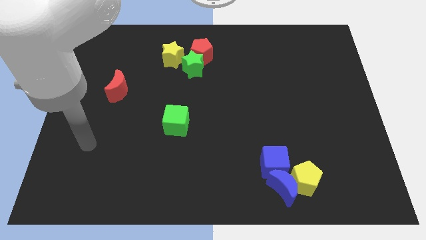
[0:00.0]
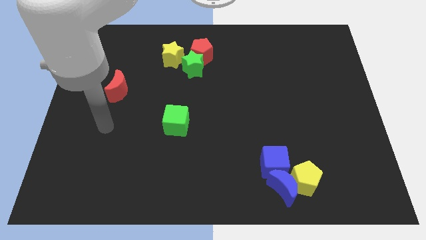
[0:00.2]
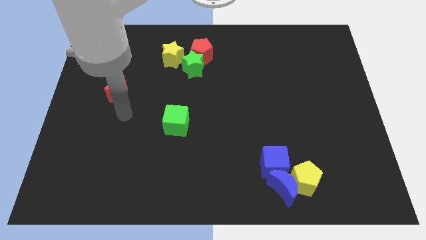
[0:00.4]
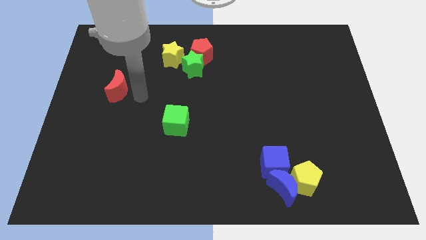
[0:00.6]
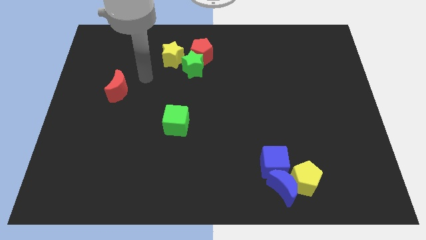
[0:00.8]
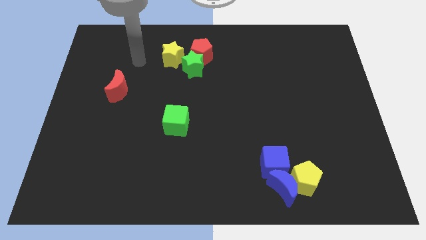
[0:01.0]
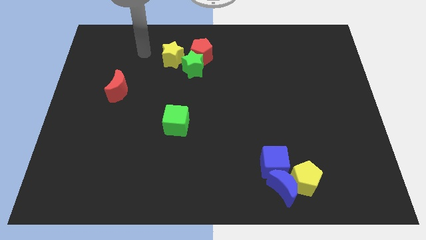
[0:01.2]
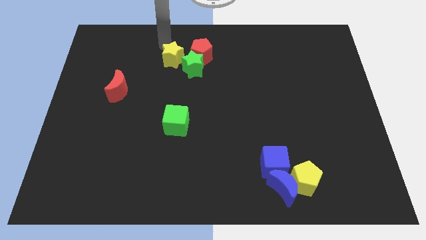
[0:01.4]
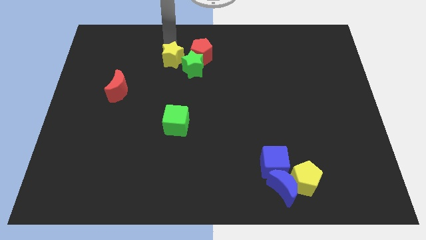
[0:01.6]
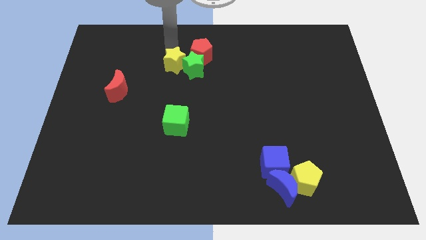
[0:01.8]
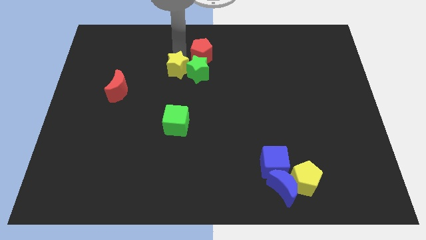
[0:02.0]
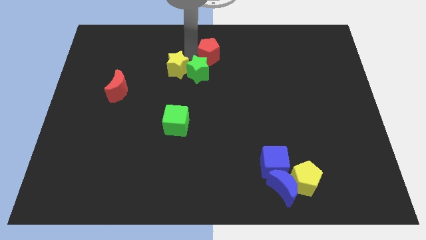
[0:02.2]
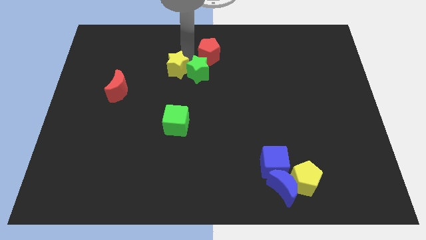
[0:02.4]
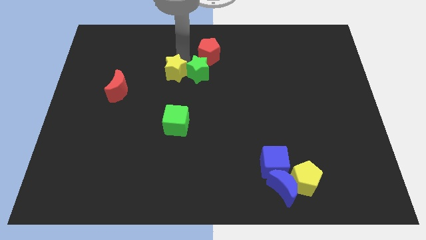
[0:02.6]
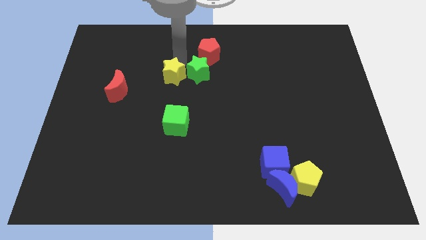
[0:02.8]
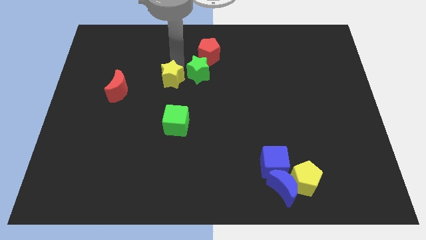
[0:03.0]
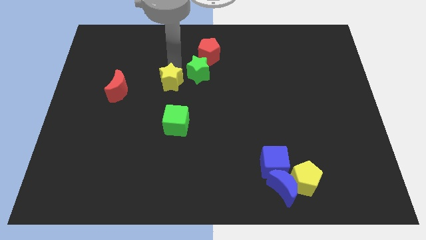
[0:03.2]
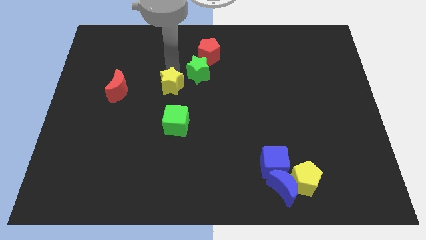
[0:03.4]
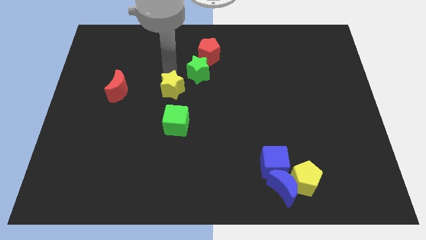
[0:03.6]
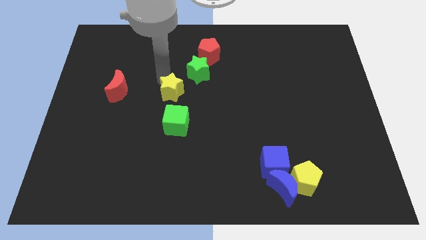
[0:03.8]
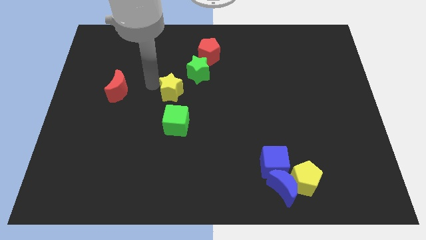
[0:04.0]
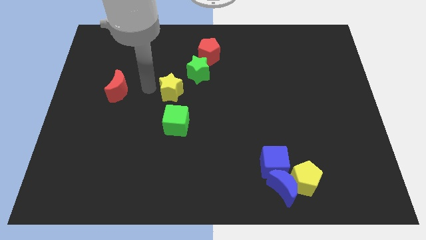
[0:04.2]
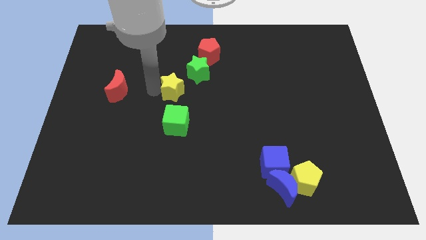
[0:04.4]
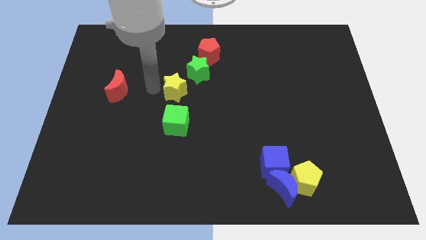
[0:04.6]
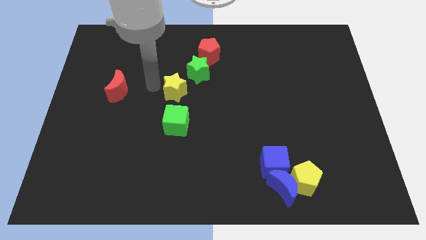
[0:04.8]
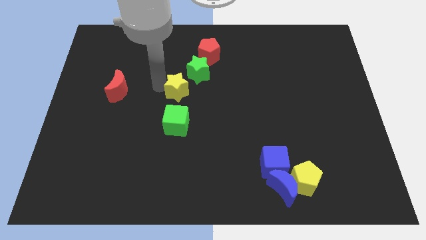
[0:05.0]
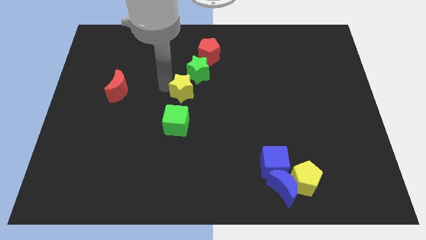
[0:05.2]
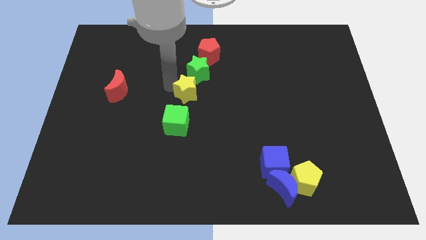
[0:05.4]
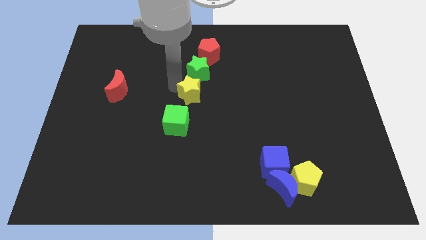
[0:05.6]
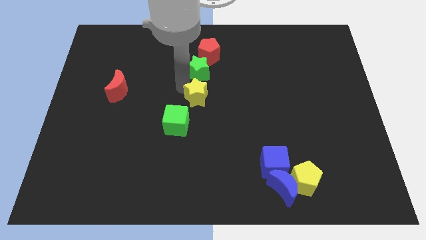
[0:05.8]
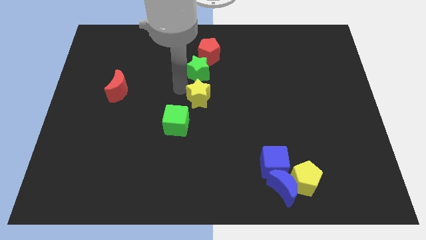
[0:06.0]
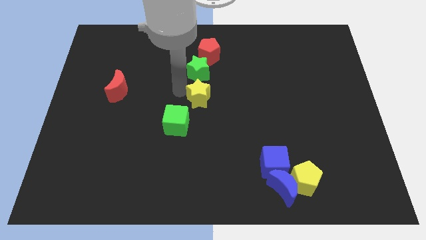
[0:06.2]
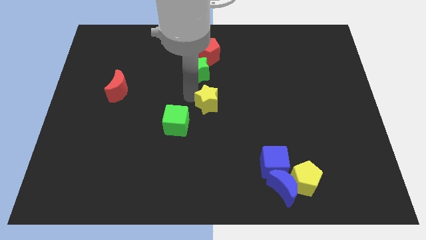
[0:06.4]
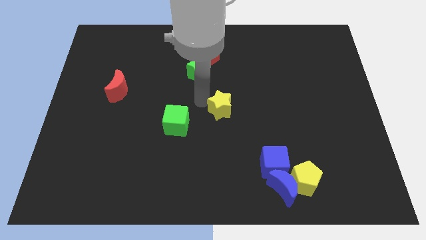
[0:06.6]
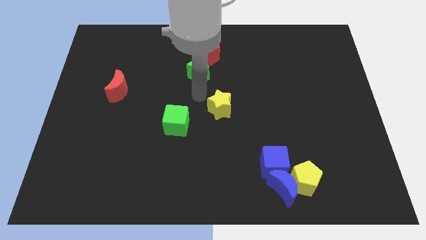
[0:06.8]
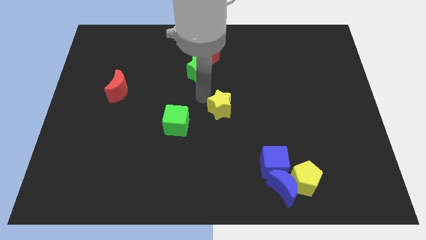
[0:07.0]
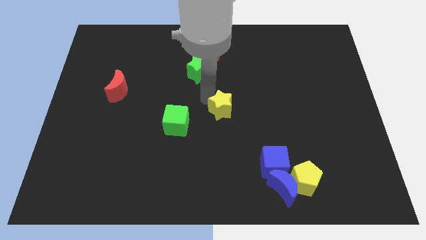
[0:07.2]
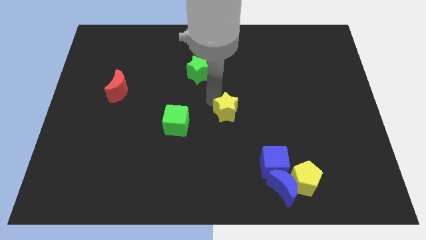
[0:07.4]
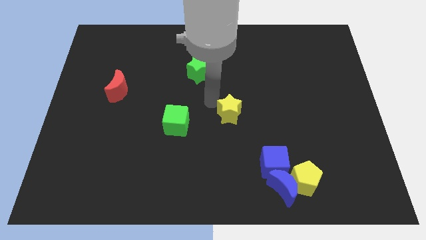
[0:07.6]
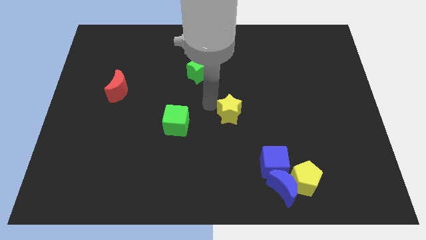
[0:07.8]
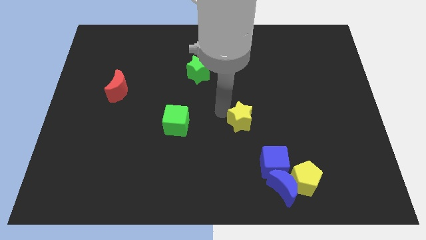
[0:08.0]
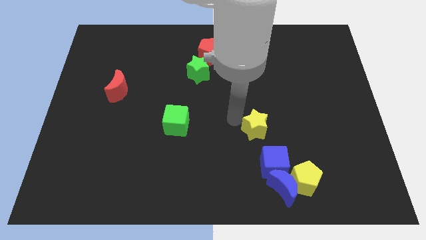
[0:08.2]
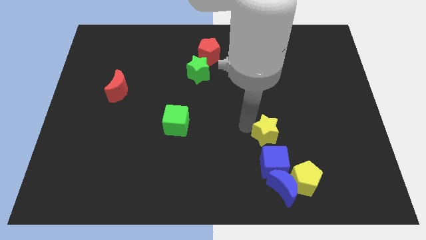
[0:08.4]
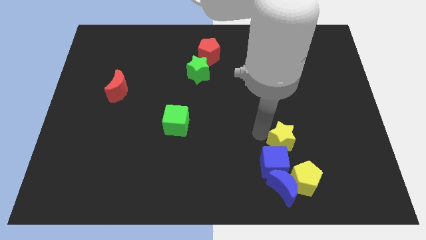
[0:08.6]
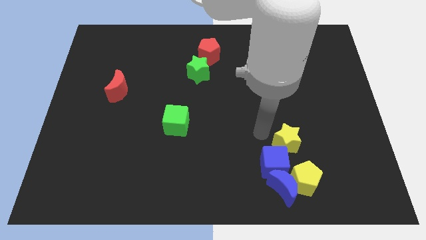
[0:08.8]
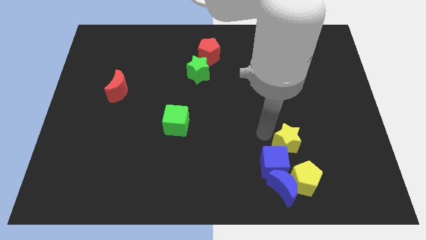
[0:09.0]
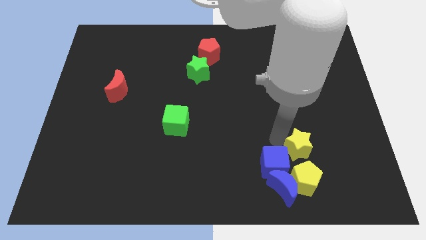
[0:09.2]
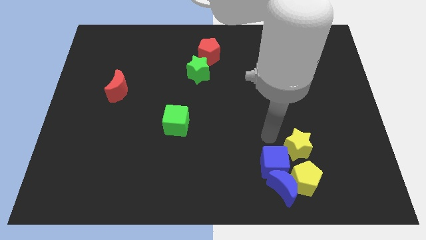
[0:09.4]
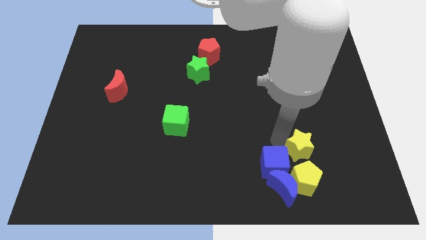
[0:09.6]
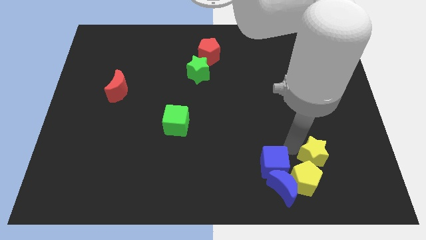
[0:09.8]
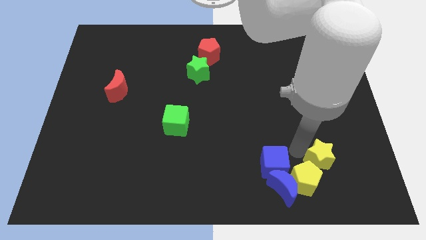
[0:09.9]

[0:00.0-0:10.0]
slide the yellow star to the right side of the yellow pentagon

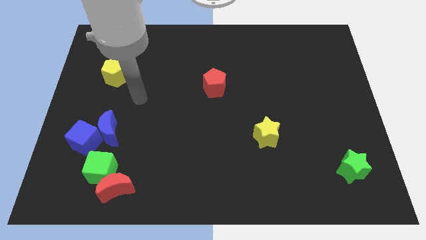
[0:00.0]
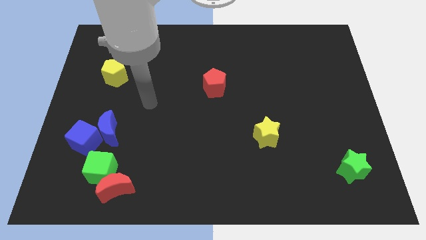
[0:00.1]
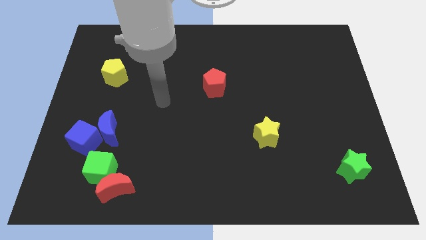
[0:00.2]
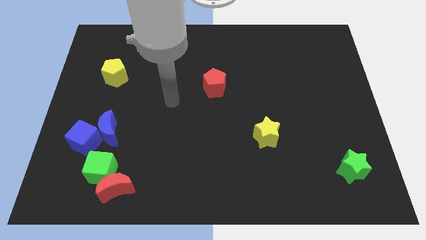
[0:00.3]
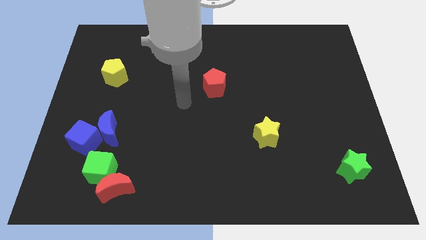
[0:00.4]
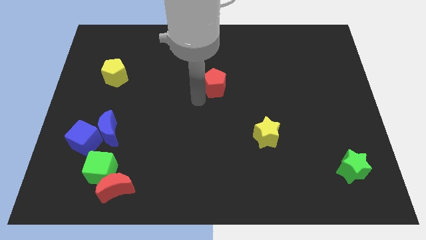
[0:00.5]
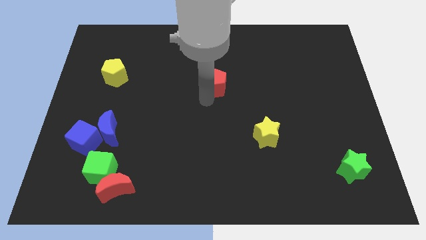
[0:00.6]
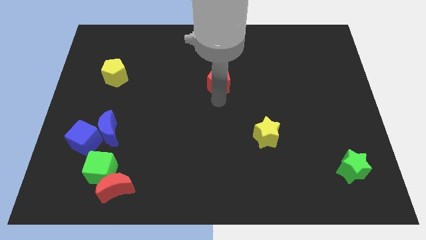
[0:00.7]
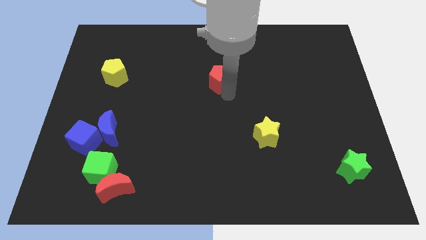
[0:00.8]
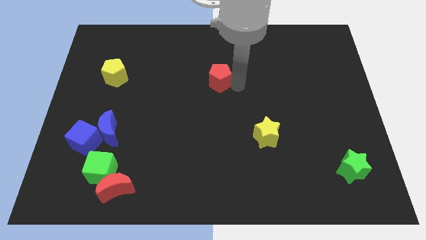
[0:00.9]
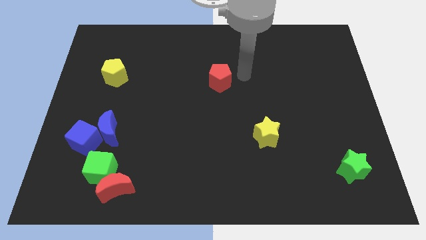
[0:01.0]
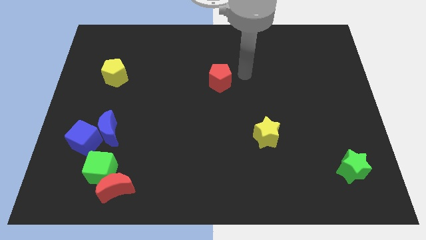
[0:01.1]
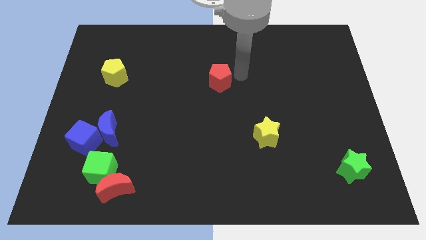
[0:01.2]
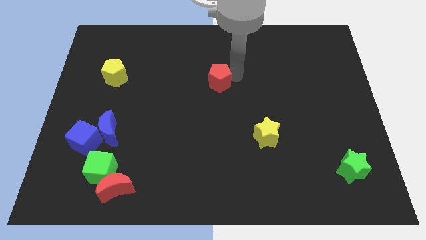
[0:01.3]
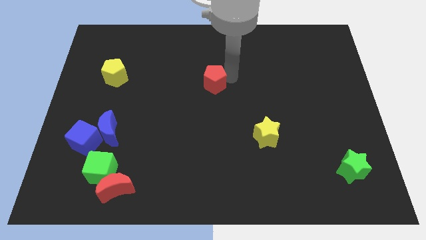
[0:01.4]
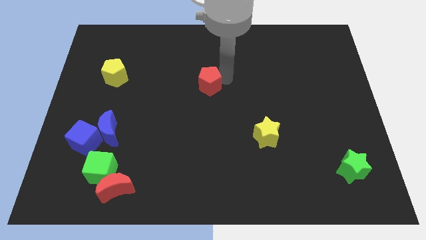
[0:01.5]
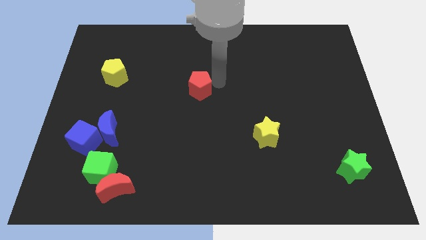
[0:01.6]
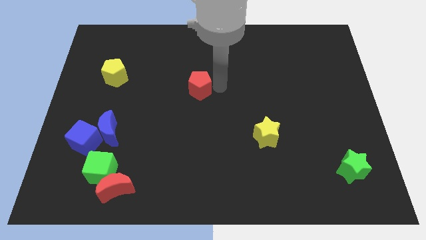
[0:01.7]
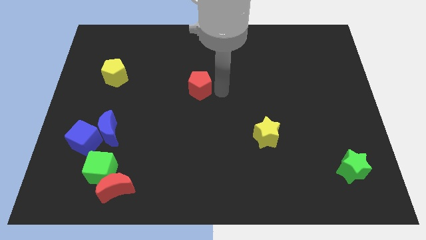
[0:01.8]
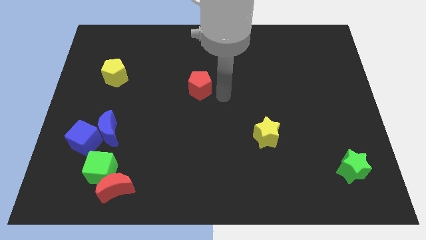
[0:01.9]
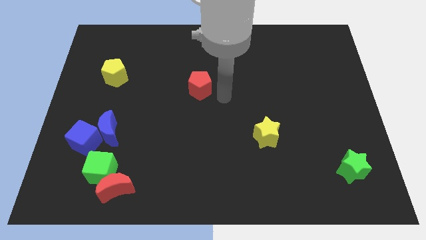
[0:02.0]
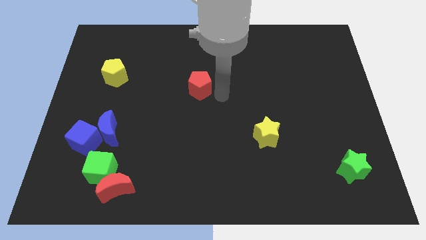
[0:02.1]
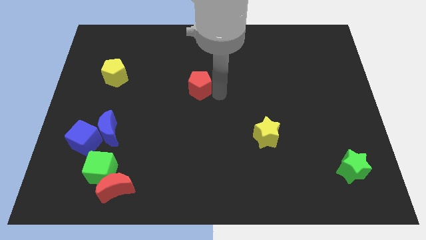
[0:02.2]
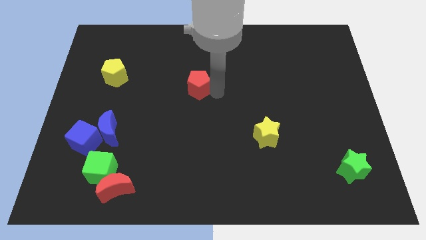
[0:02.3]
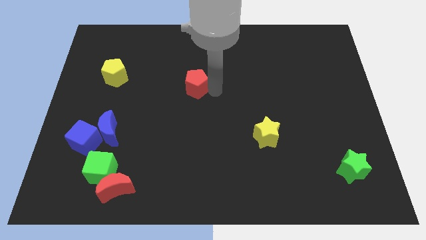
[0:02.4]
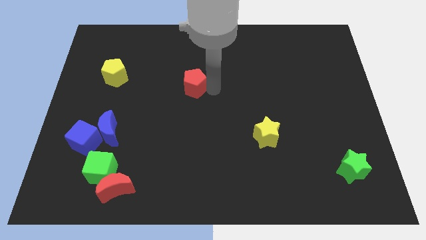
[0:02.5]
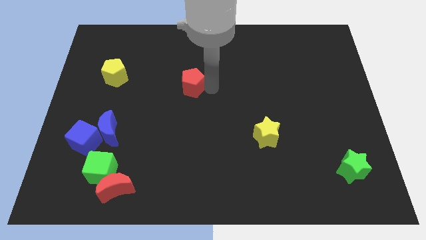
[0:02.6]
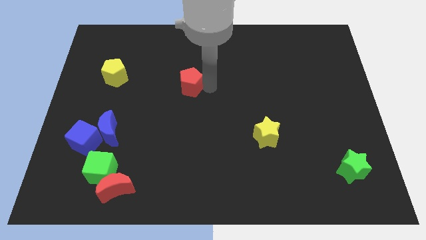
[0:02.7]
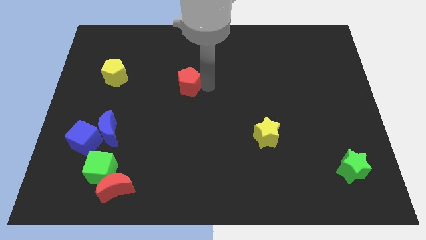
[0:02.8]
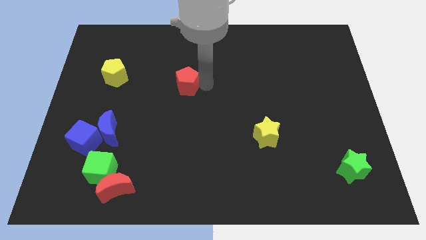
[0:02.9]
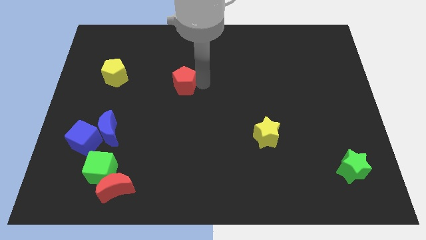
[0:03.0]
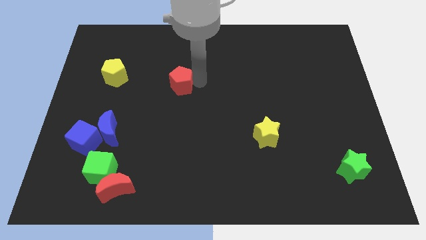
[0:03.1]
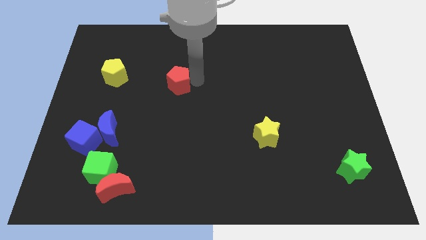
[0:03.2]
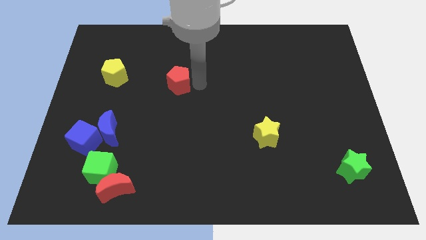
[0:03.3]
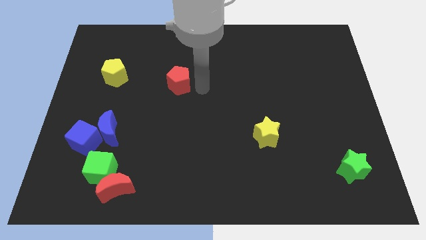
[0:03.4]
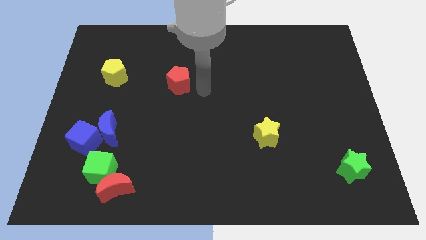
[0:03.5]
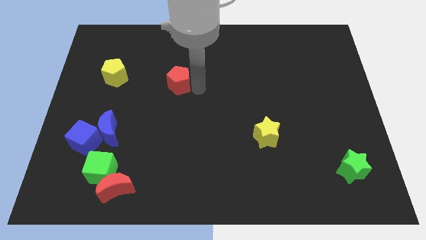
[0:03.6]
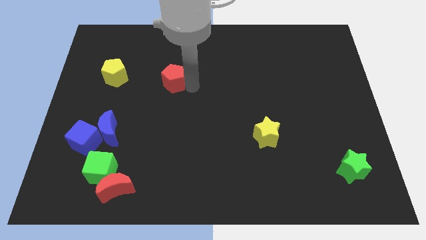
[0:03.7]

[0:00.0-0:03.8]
put the red pentagon just right of the yellow pentagon
